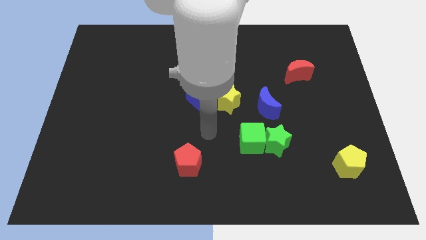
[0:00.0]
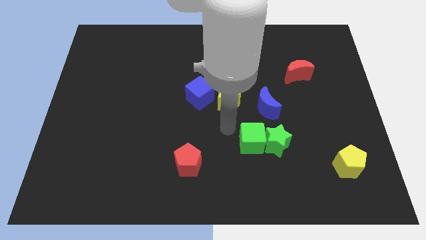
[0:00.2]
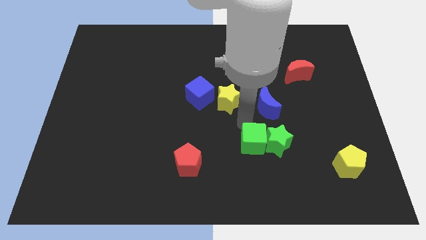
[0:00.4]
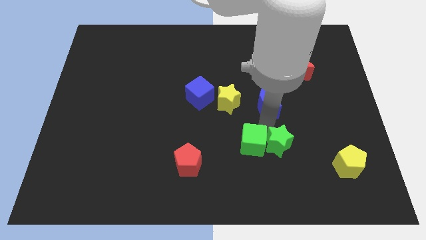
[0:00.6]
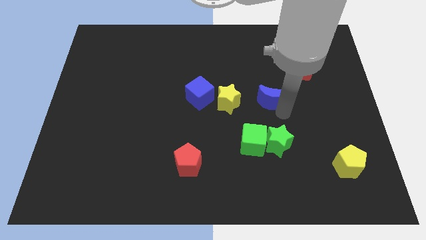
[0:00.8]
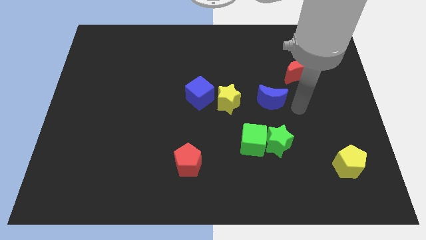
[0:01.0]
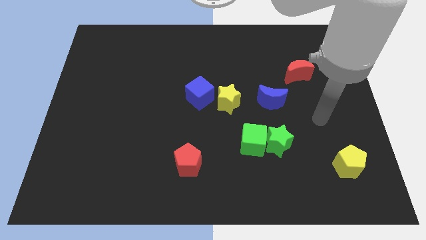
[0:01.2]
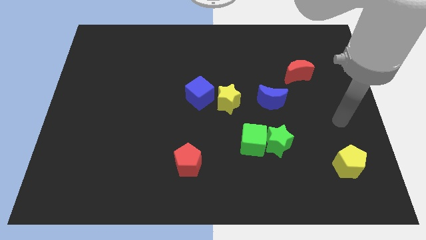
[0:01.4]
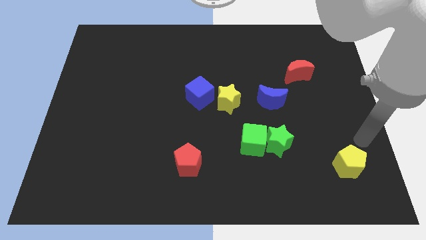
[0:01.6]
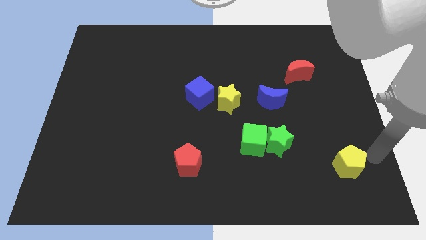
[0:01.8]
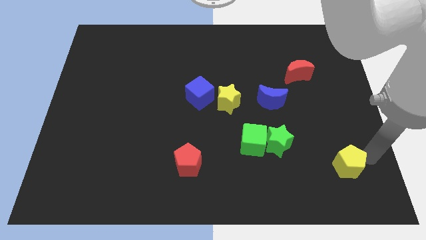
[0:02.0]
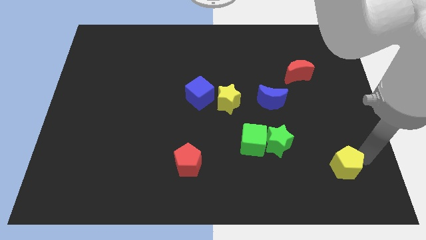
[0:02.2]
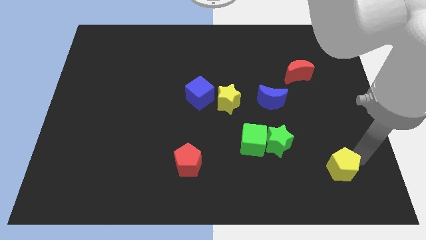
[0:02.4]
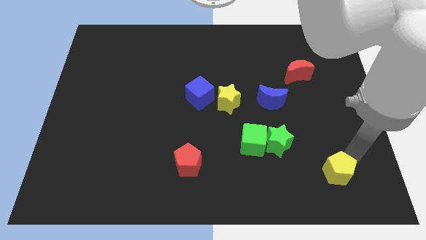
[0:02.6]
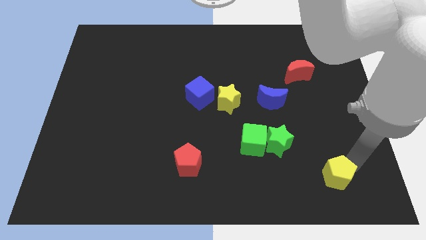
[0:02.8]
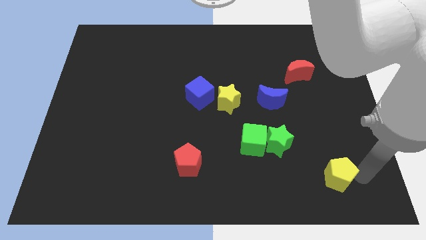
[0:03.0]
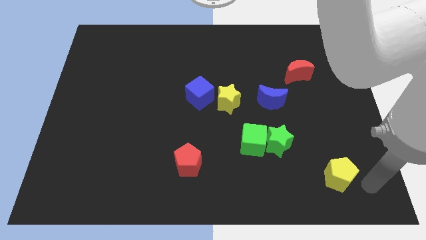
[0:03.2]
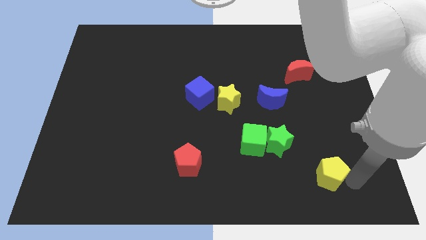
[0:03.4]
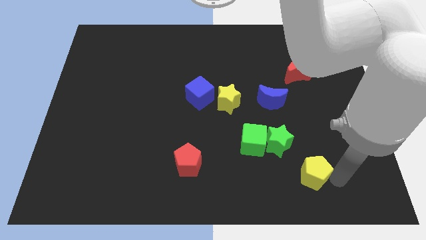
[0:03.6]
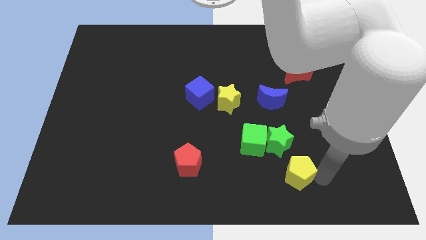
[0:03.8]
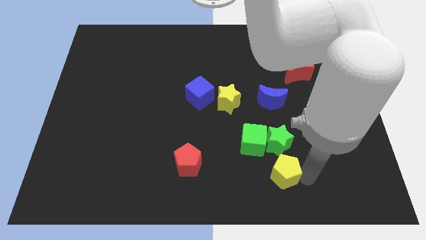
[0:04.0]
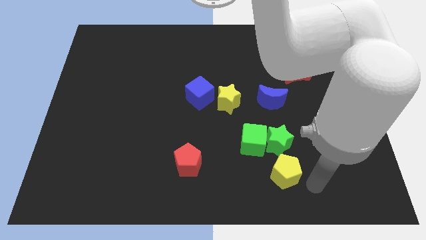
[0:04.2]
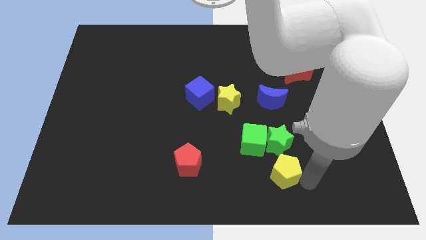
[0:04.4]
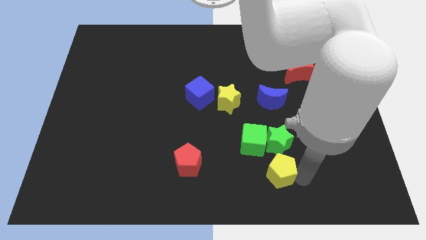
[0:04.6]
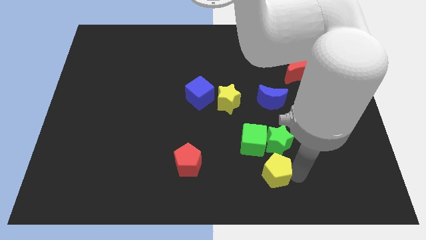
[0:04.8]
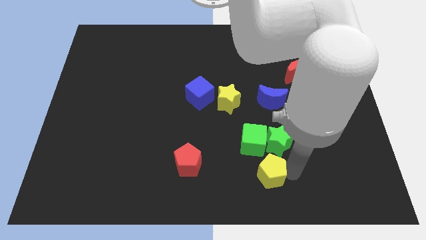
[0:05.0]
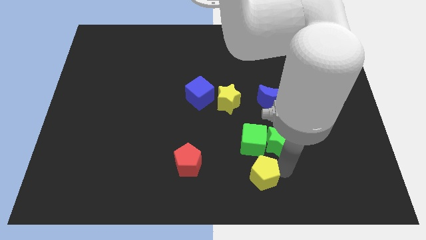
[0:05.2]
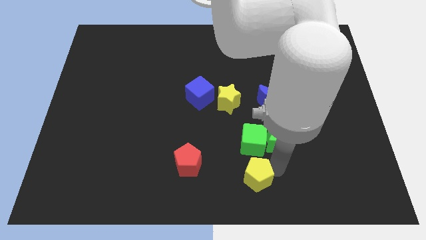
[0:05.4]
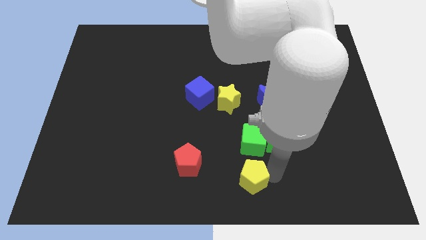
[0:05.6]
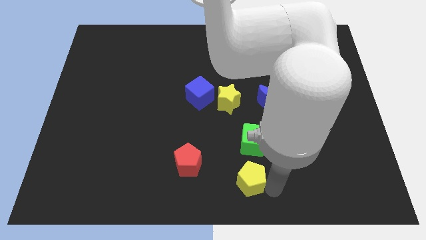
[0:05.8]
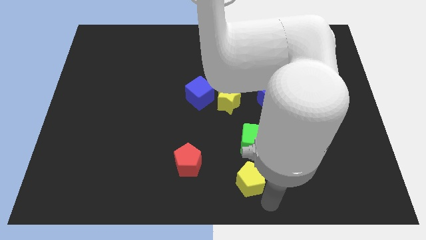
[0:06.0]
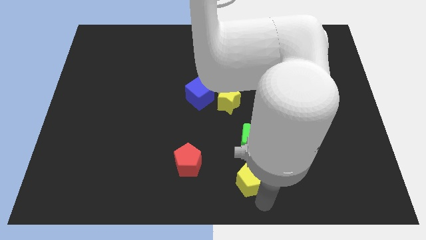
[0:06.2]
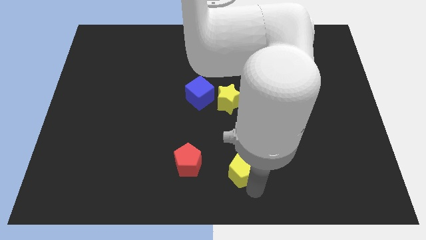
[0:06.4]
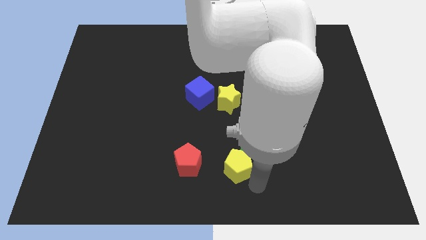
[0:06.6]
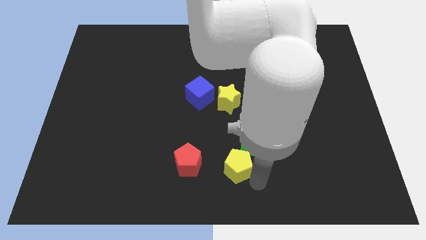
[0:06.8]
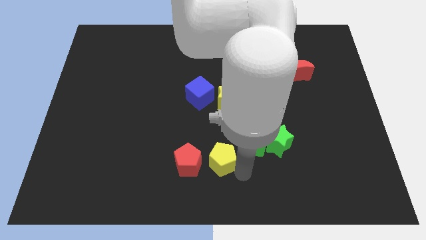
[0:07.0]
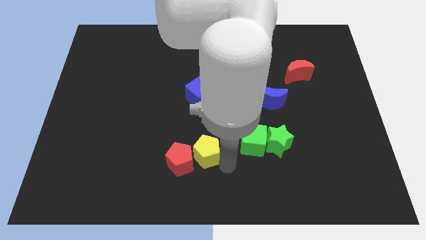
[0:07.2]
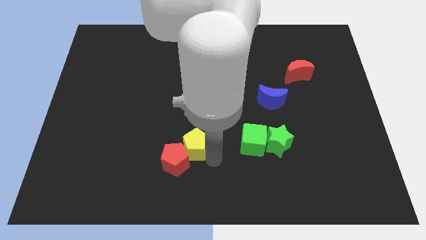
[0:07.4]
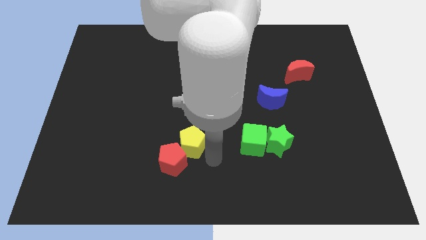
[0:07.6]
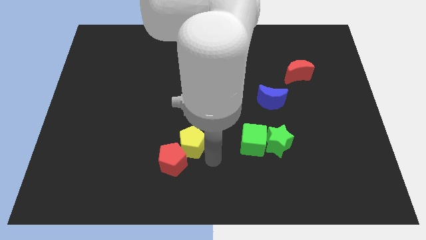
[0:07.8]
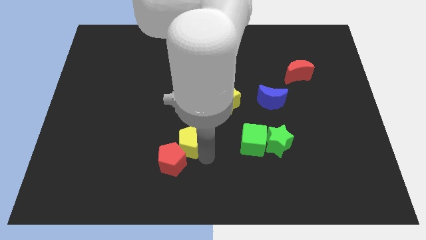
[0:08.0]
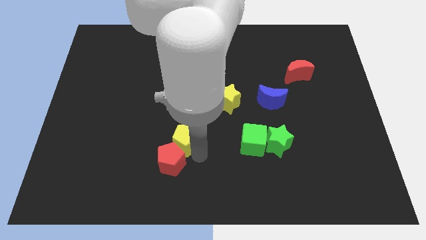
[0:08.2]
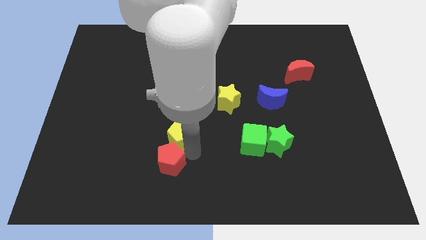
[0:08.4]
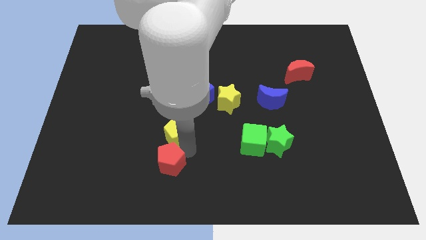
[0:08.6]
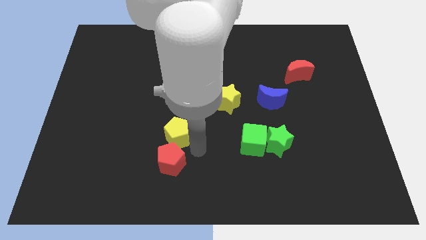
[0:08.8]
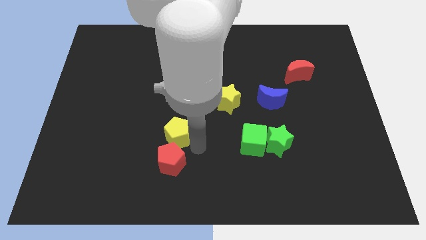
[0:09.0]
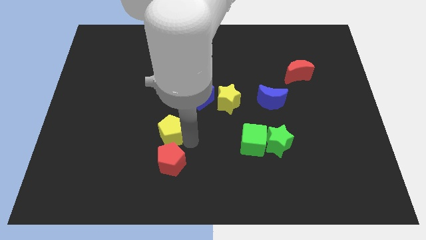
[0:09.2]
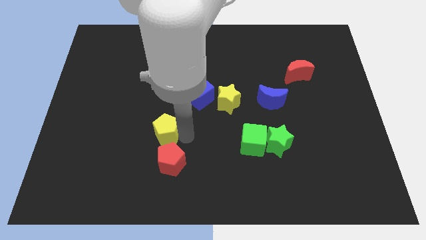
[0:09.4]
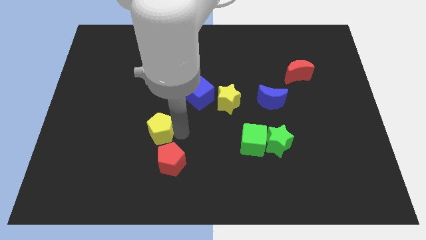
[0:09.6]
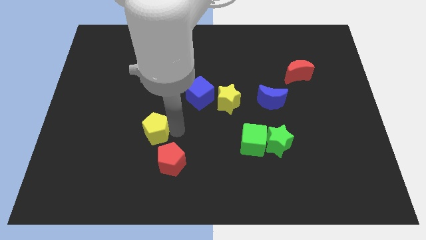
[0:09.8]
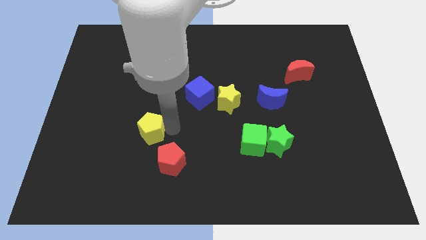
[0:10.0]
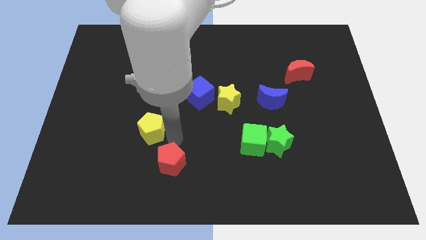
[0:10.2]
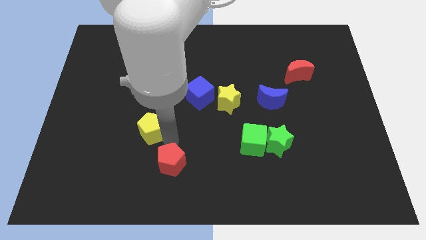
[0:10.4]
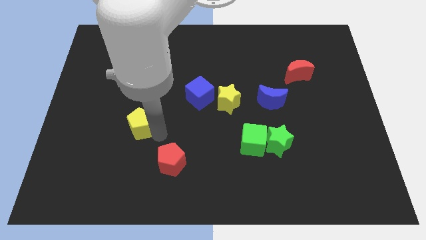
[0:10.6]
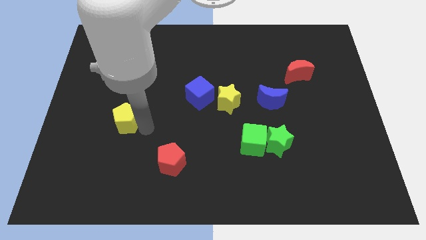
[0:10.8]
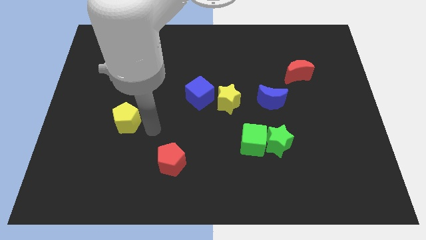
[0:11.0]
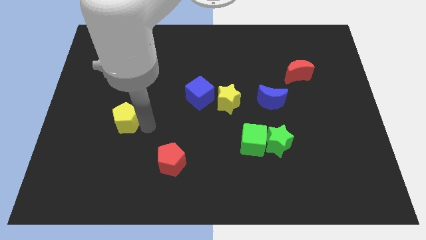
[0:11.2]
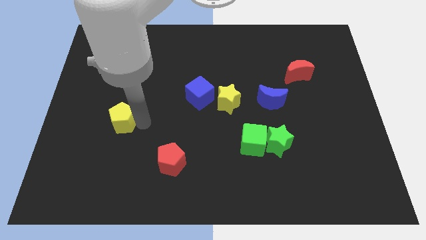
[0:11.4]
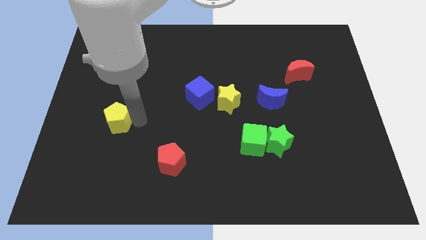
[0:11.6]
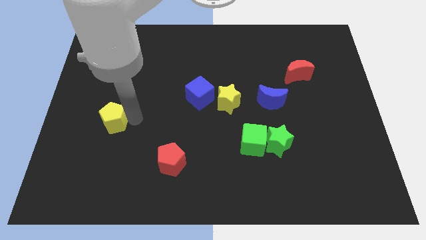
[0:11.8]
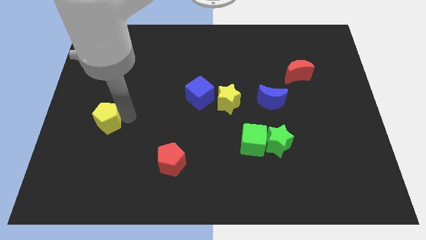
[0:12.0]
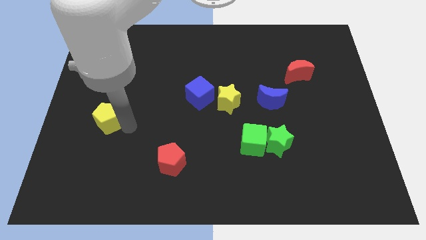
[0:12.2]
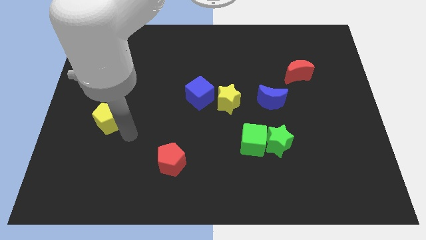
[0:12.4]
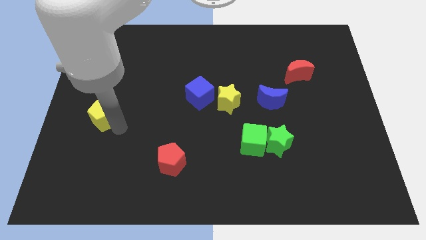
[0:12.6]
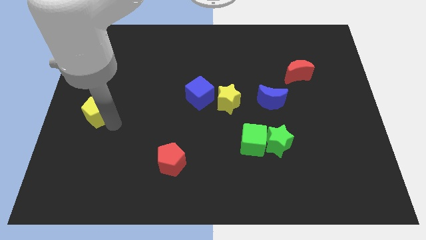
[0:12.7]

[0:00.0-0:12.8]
put the yellow pentagon to the left side of the board

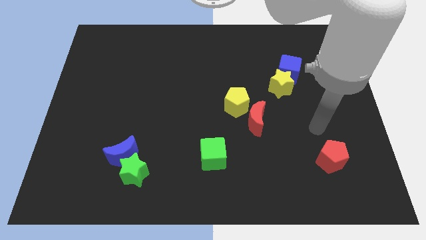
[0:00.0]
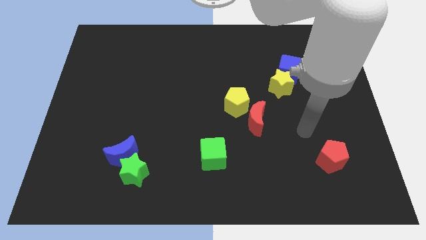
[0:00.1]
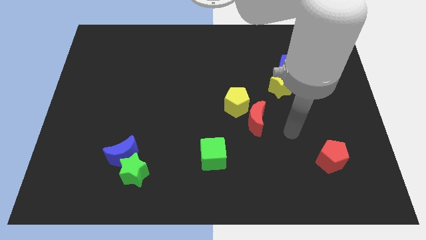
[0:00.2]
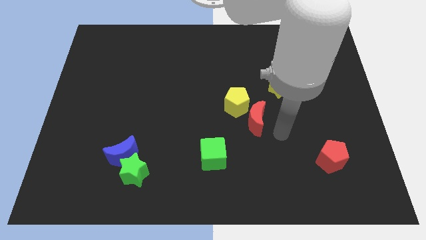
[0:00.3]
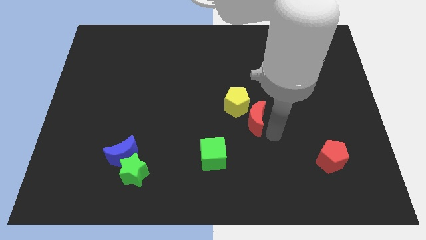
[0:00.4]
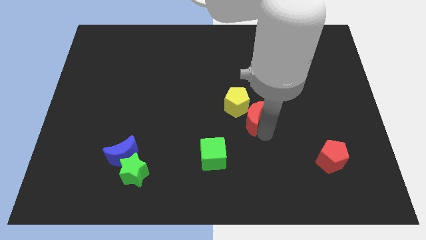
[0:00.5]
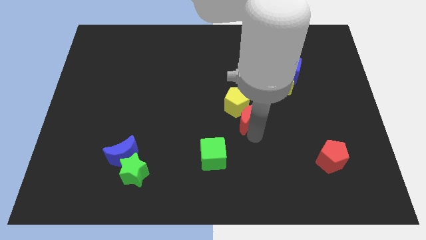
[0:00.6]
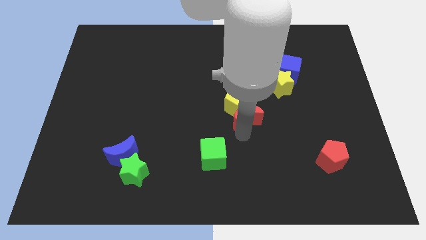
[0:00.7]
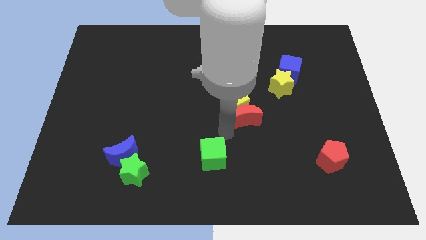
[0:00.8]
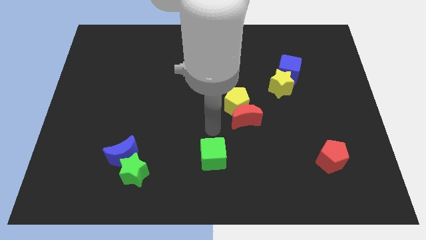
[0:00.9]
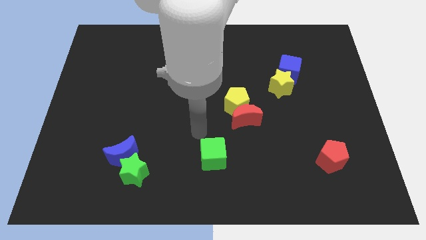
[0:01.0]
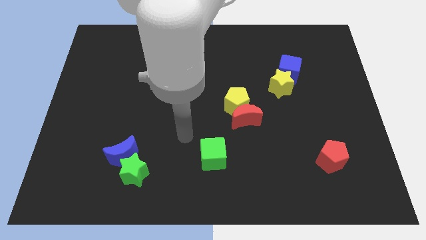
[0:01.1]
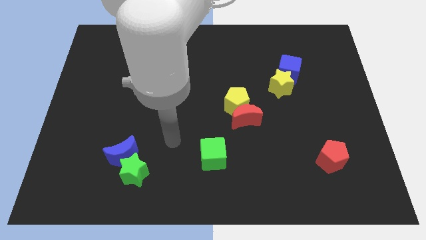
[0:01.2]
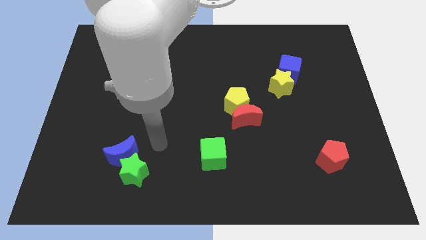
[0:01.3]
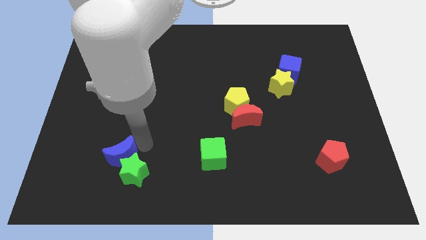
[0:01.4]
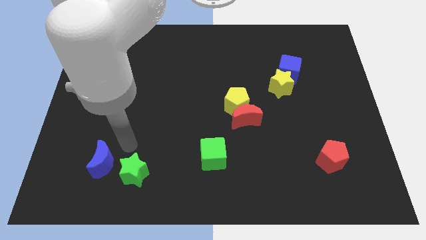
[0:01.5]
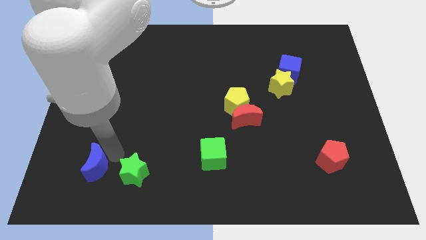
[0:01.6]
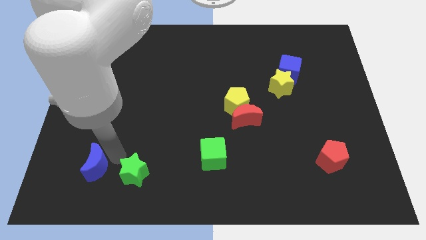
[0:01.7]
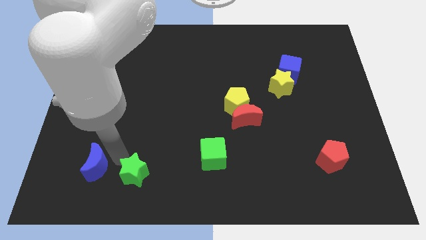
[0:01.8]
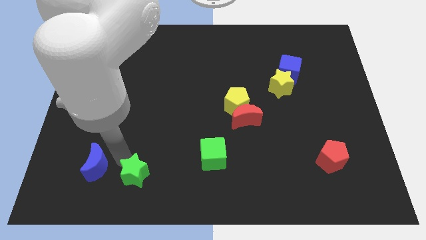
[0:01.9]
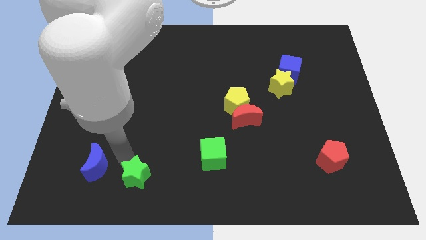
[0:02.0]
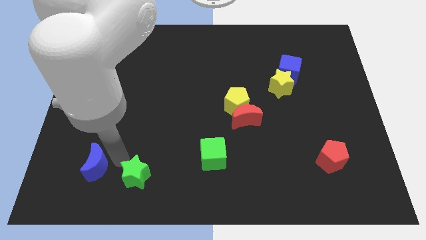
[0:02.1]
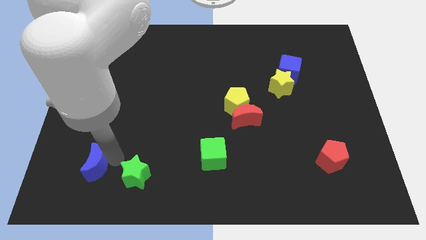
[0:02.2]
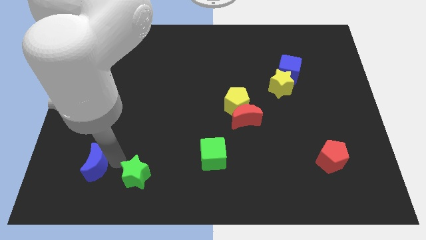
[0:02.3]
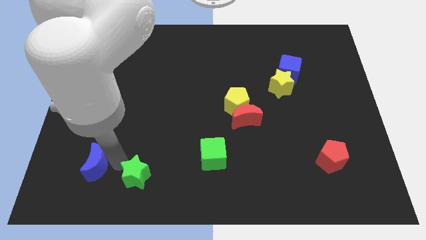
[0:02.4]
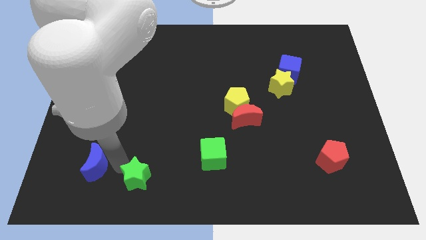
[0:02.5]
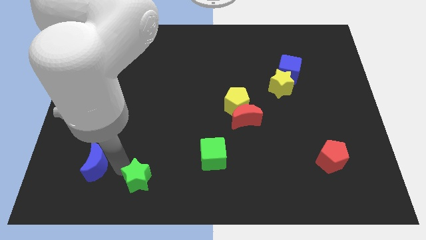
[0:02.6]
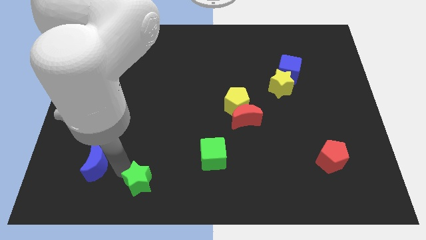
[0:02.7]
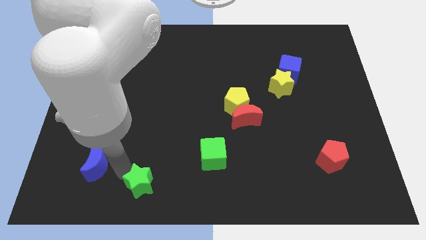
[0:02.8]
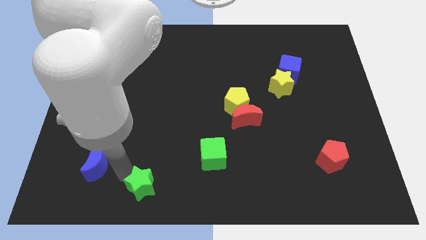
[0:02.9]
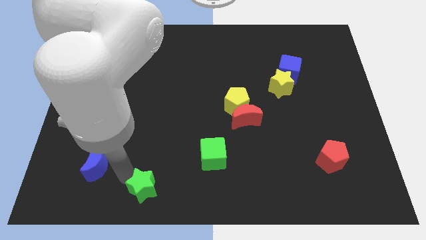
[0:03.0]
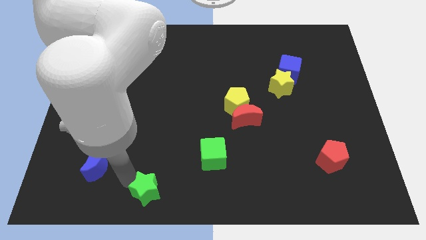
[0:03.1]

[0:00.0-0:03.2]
push the green star to the bottom side
